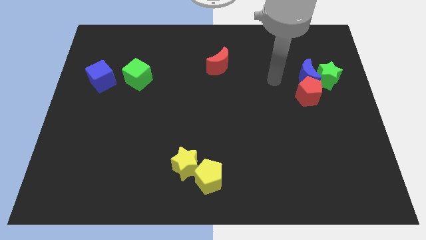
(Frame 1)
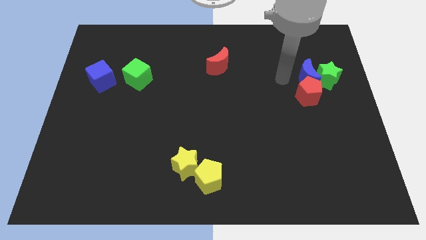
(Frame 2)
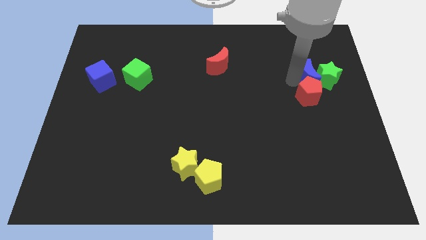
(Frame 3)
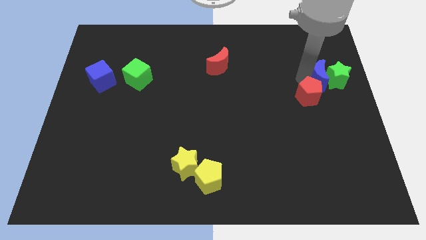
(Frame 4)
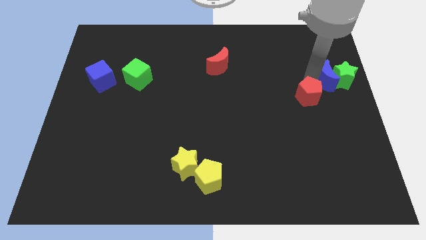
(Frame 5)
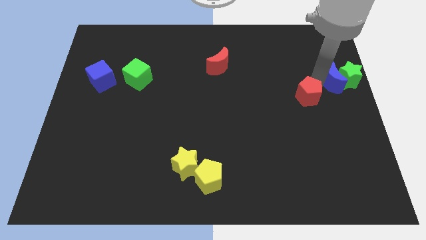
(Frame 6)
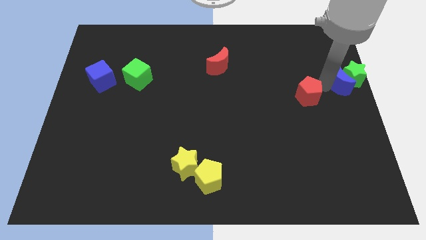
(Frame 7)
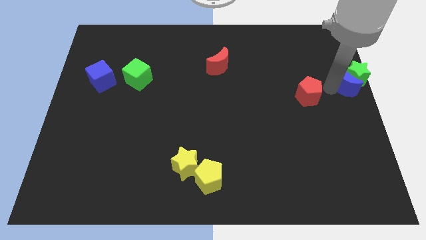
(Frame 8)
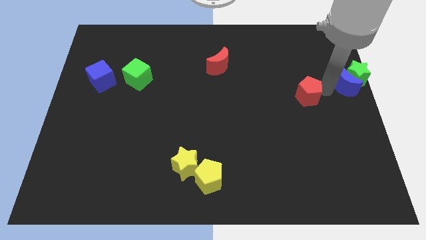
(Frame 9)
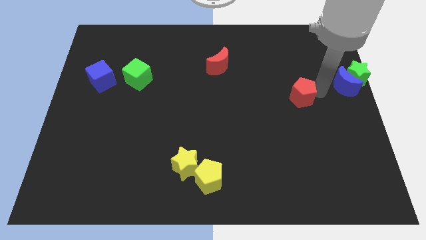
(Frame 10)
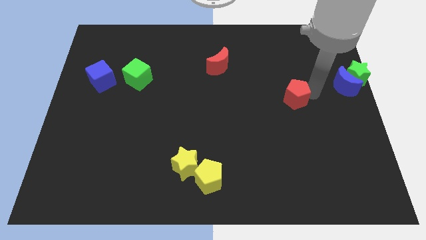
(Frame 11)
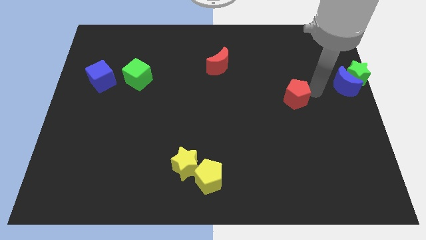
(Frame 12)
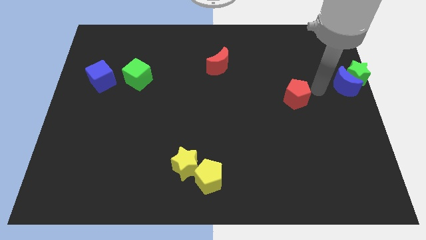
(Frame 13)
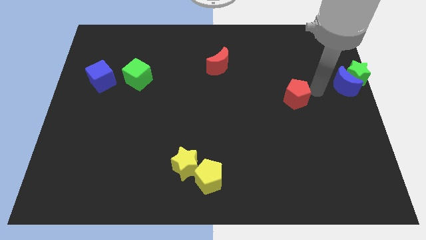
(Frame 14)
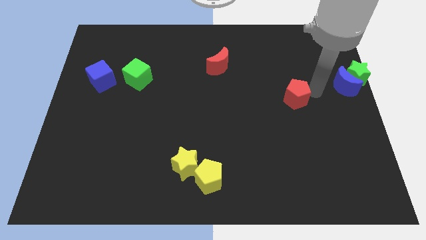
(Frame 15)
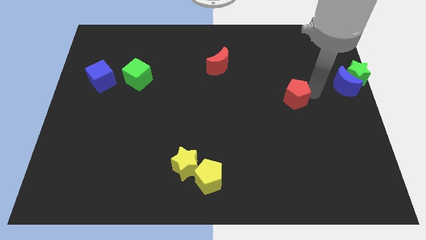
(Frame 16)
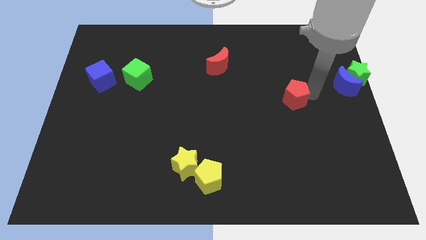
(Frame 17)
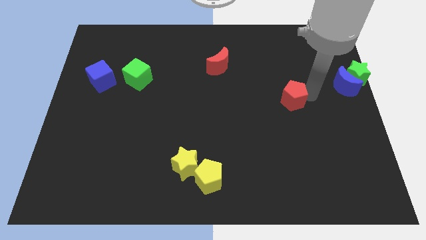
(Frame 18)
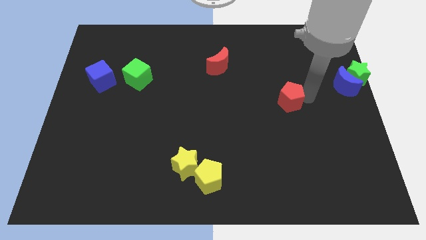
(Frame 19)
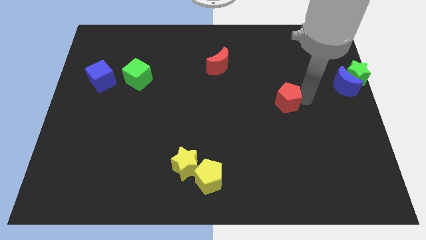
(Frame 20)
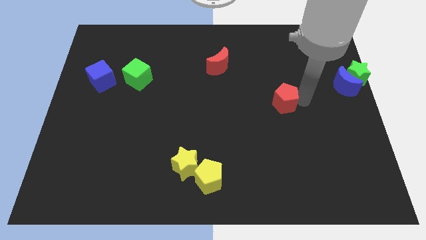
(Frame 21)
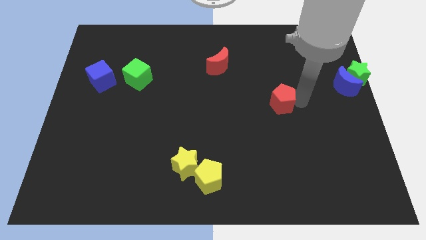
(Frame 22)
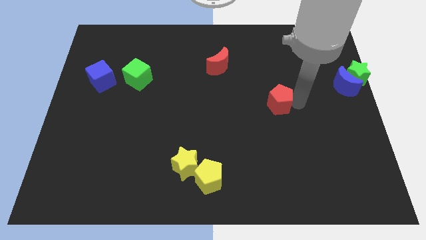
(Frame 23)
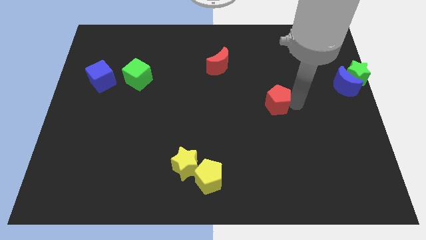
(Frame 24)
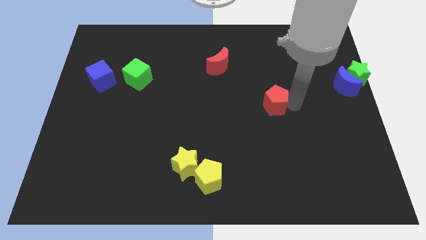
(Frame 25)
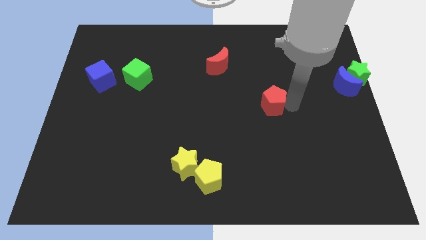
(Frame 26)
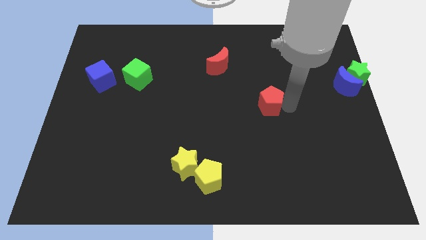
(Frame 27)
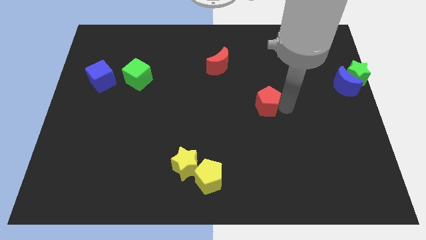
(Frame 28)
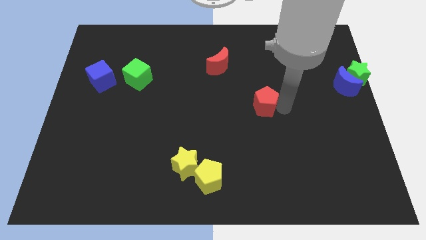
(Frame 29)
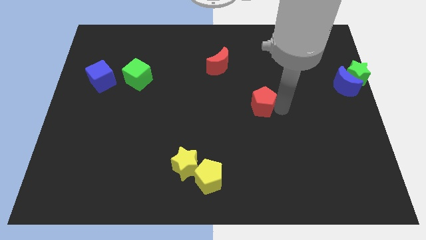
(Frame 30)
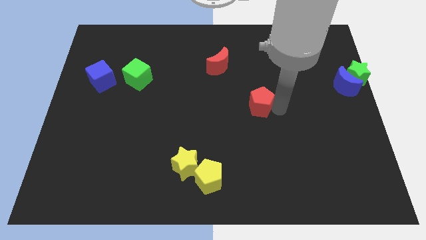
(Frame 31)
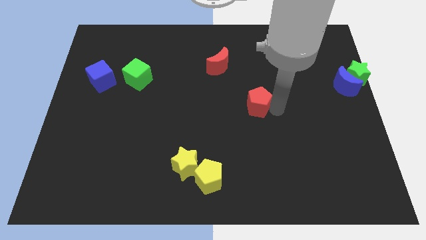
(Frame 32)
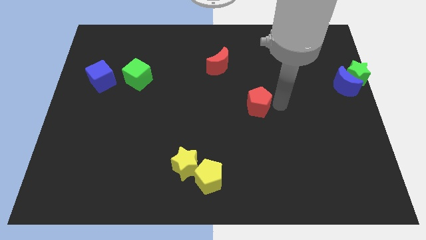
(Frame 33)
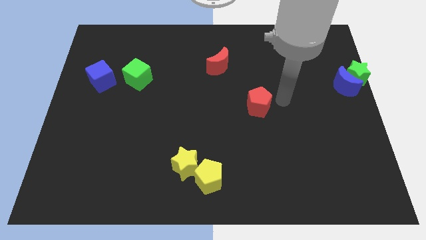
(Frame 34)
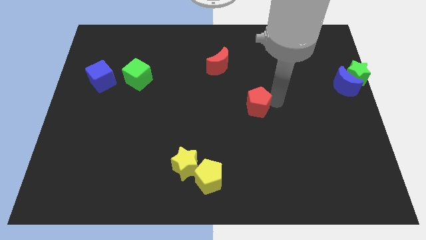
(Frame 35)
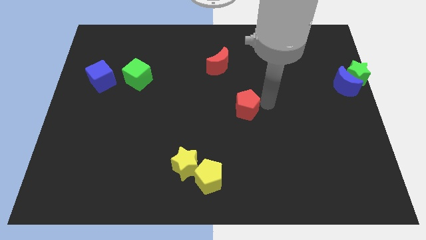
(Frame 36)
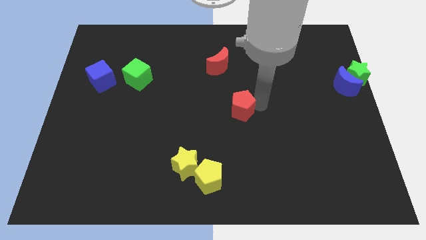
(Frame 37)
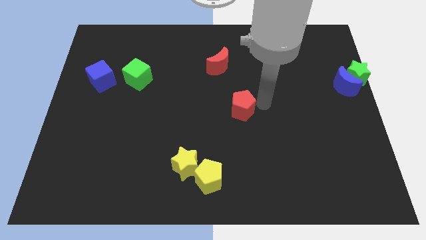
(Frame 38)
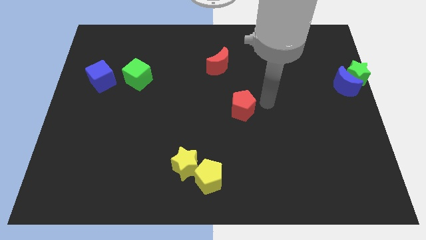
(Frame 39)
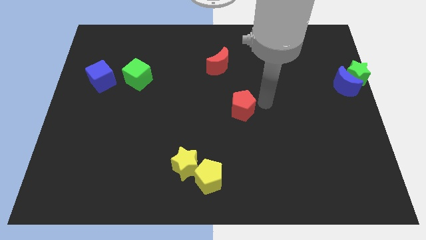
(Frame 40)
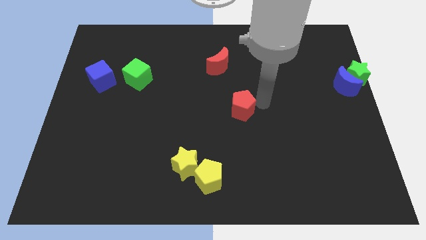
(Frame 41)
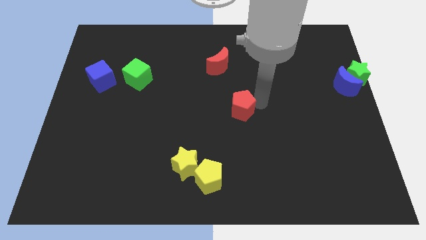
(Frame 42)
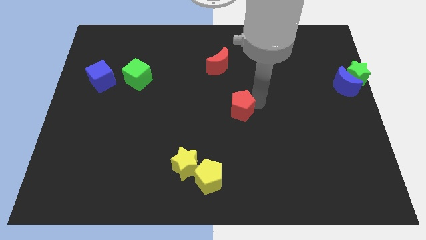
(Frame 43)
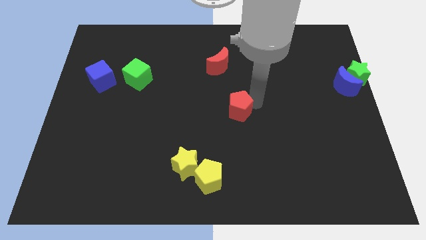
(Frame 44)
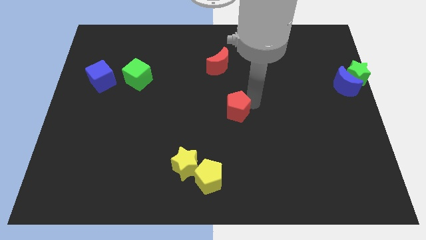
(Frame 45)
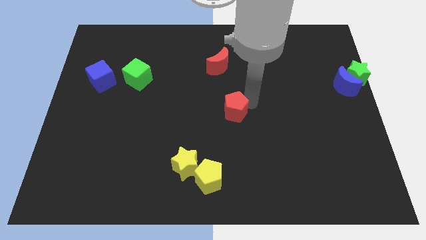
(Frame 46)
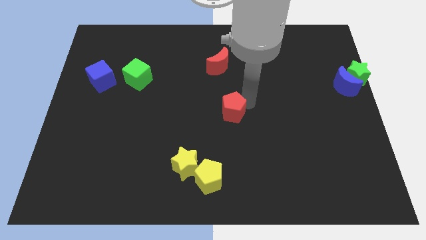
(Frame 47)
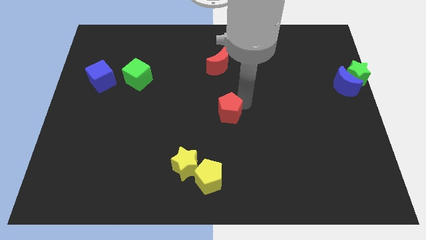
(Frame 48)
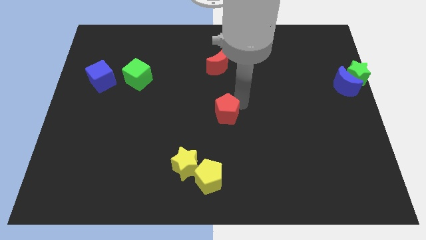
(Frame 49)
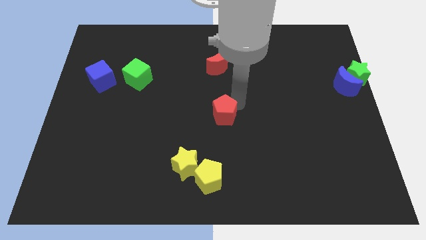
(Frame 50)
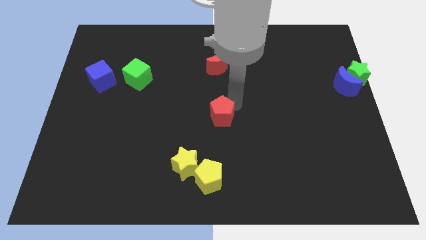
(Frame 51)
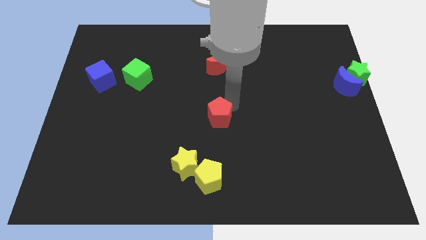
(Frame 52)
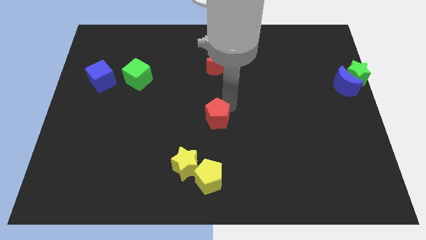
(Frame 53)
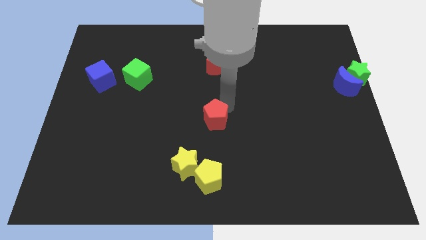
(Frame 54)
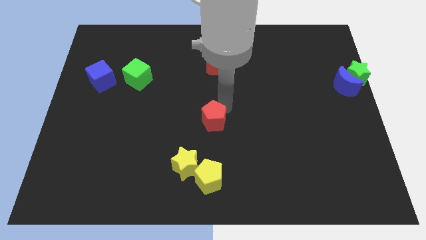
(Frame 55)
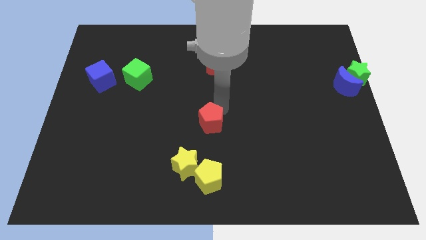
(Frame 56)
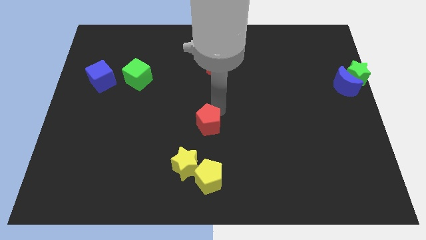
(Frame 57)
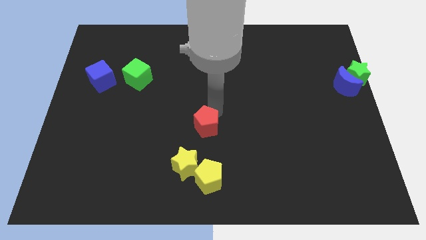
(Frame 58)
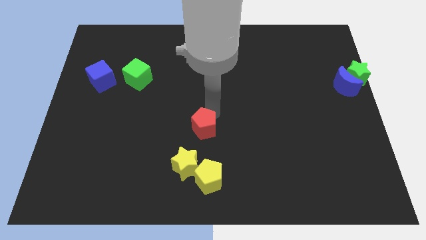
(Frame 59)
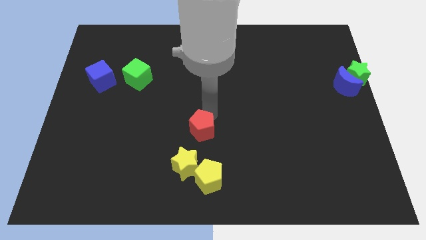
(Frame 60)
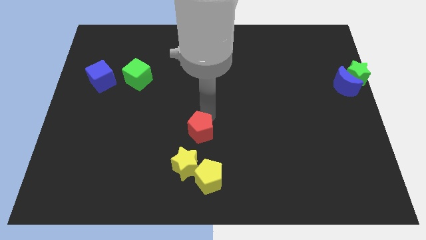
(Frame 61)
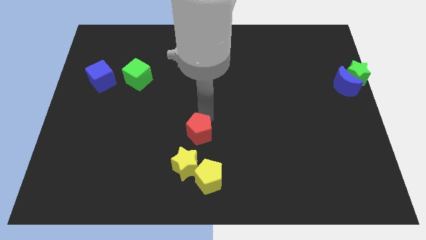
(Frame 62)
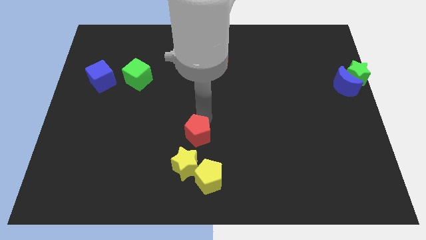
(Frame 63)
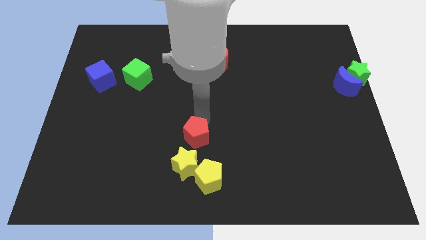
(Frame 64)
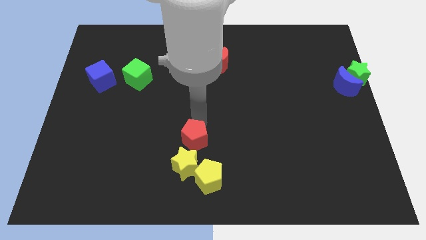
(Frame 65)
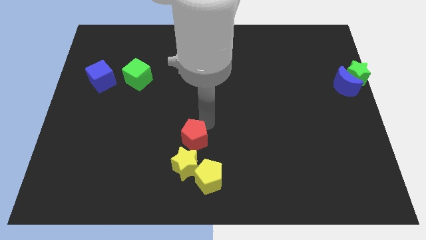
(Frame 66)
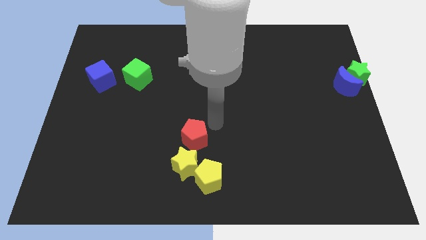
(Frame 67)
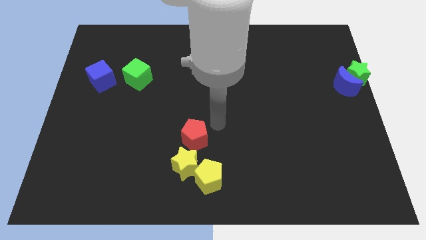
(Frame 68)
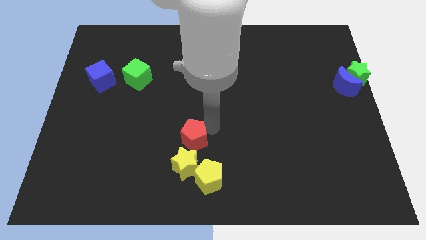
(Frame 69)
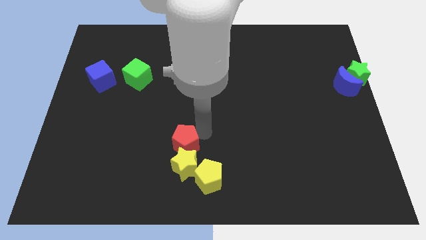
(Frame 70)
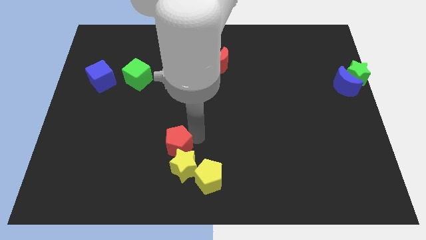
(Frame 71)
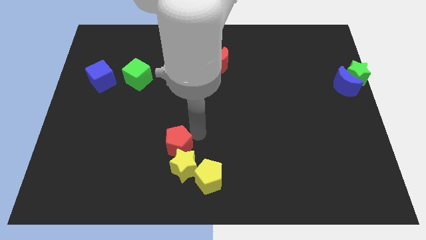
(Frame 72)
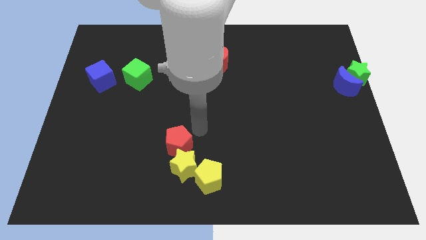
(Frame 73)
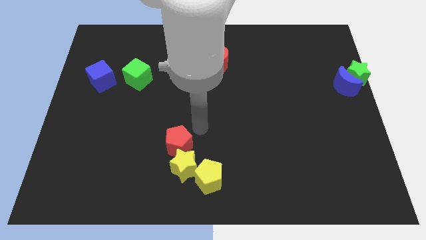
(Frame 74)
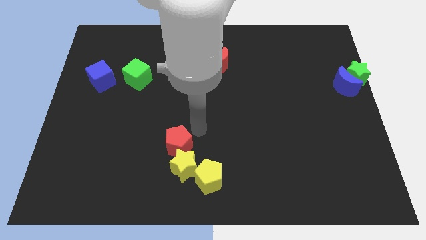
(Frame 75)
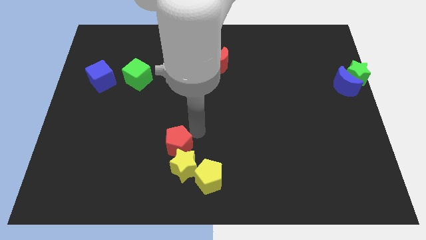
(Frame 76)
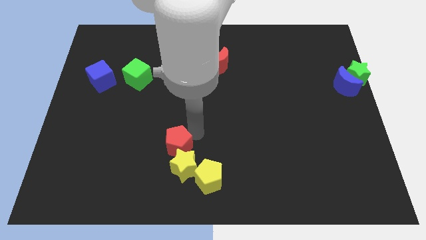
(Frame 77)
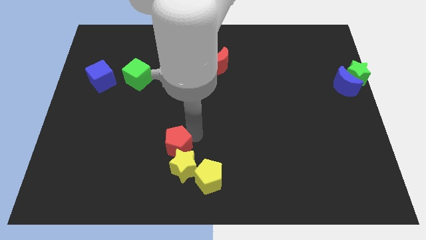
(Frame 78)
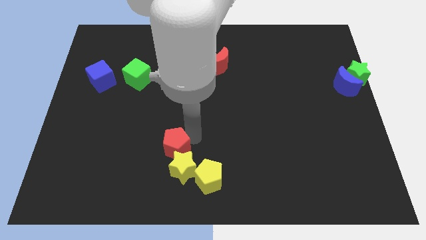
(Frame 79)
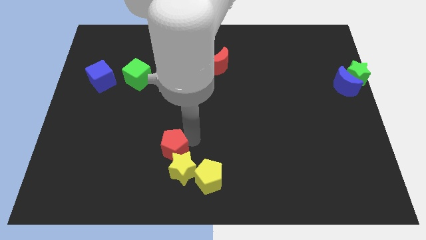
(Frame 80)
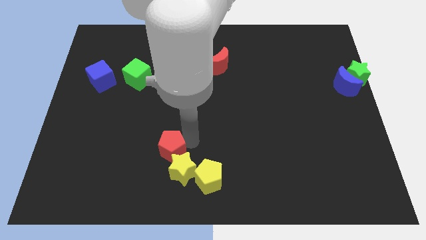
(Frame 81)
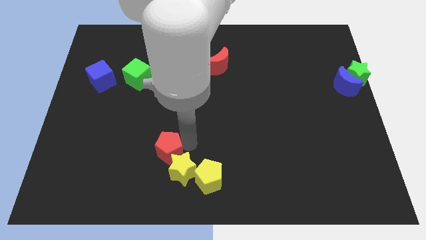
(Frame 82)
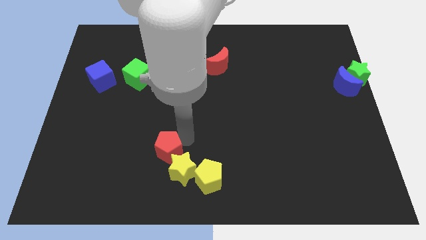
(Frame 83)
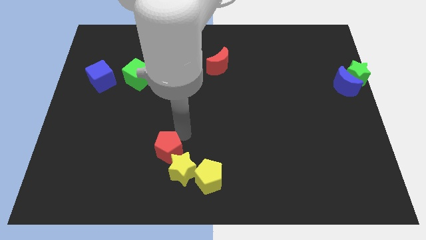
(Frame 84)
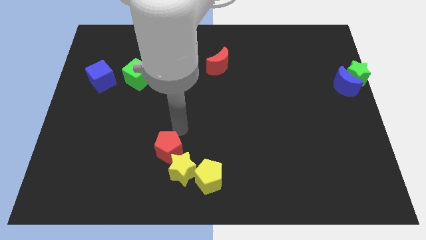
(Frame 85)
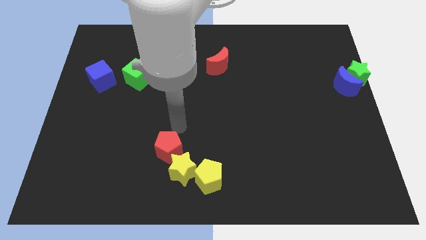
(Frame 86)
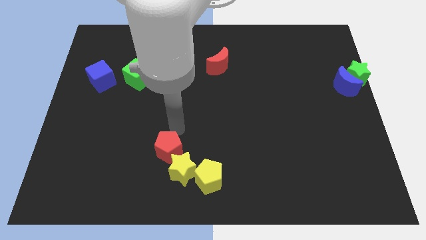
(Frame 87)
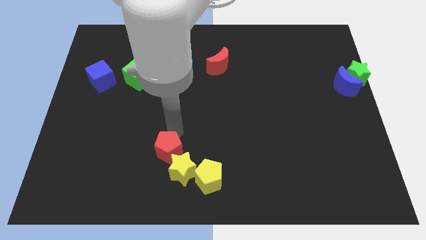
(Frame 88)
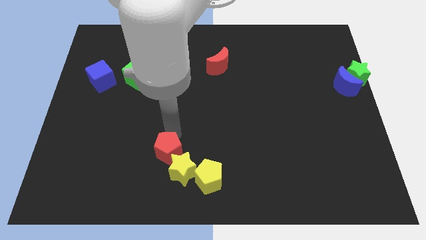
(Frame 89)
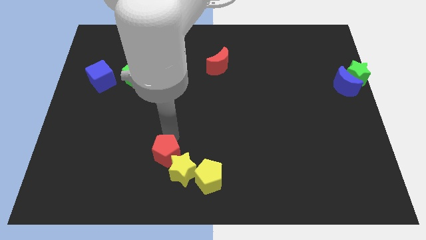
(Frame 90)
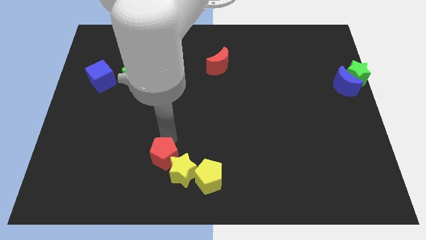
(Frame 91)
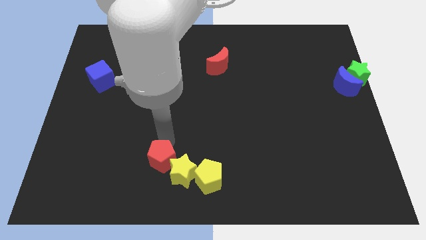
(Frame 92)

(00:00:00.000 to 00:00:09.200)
slide the red pentagon to the left side of the yellow pentagon
